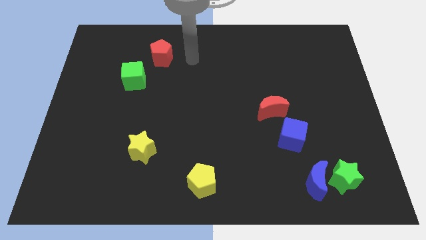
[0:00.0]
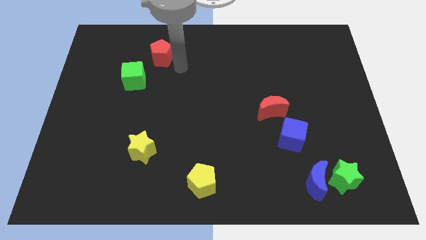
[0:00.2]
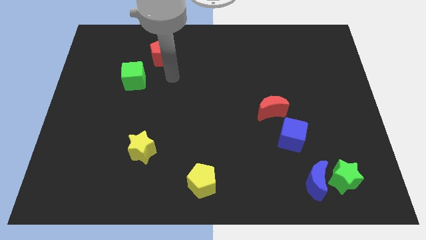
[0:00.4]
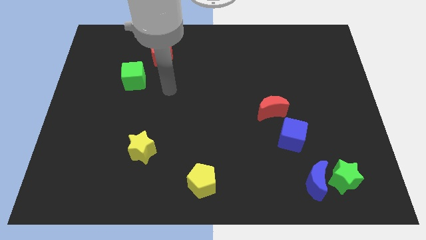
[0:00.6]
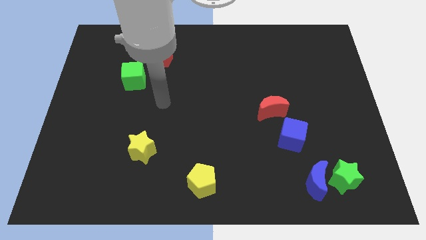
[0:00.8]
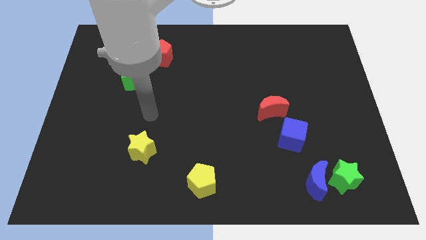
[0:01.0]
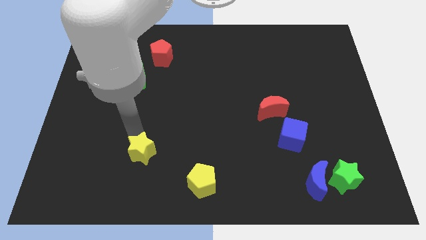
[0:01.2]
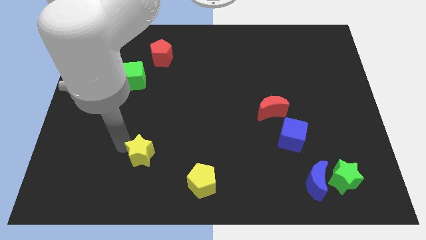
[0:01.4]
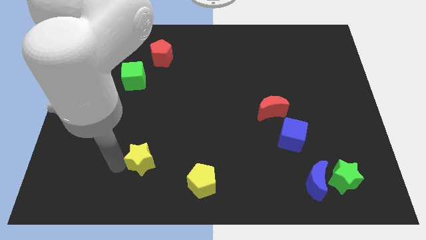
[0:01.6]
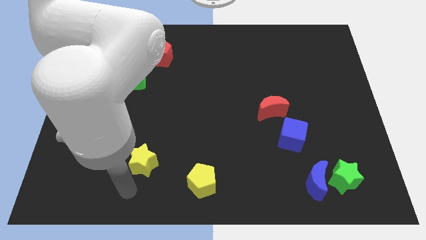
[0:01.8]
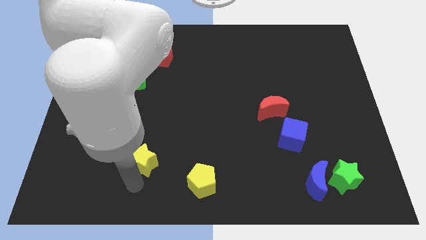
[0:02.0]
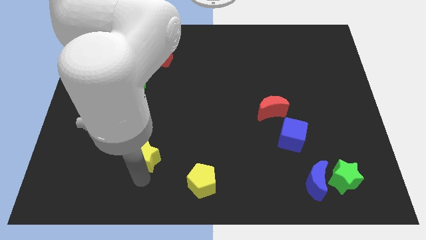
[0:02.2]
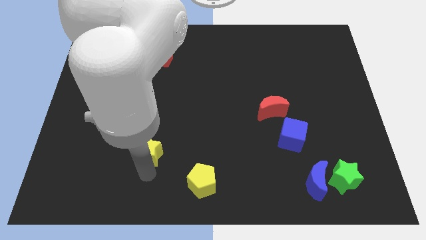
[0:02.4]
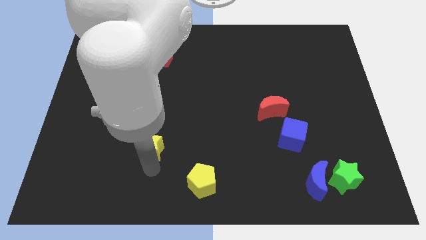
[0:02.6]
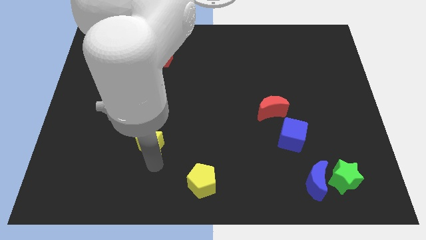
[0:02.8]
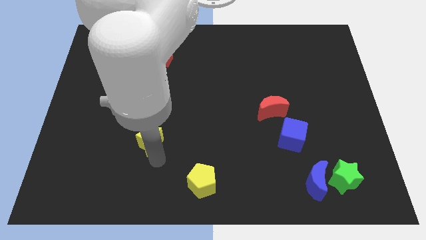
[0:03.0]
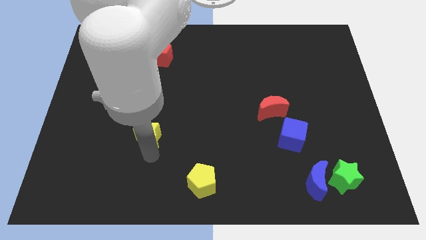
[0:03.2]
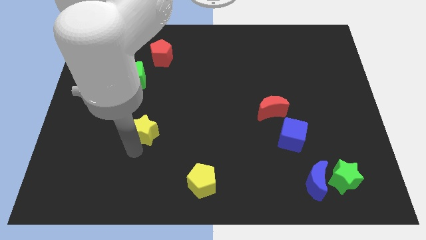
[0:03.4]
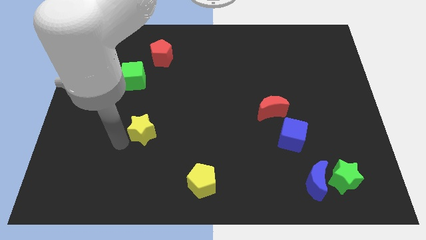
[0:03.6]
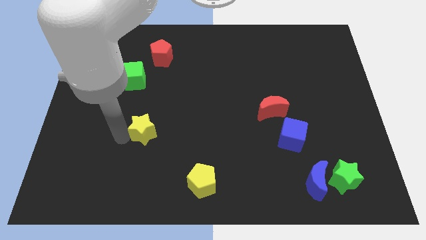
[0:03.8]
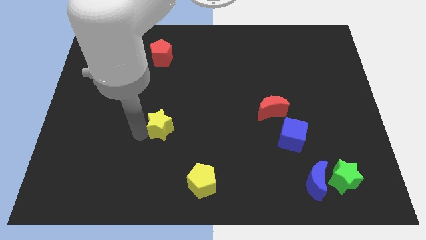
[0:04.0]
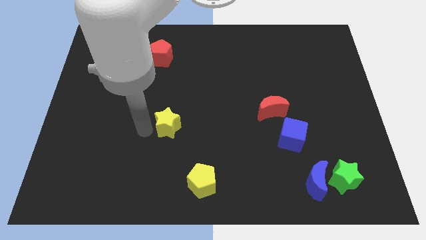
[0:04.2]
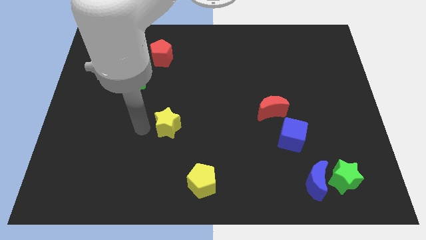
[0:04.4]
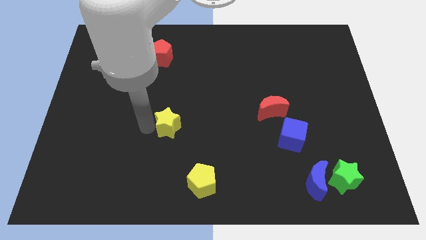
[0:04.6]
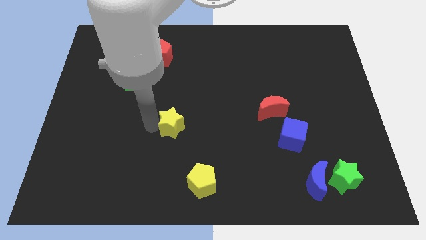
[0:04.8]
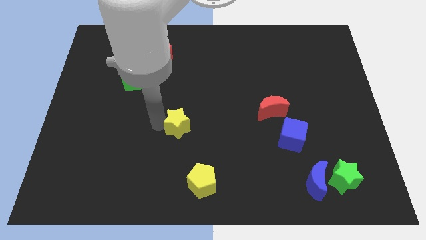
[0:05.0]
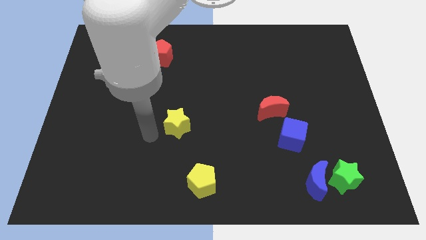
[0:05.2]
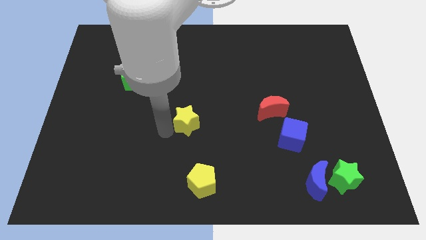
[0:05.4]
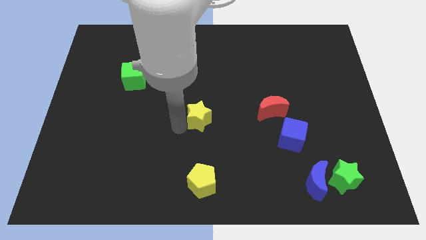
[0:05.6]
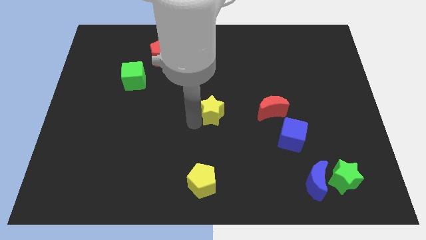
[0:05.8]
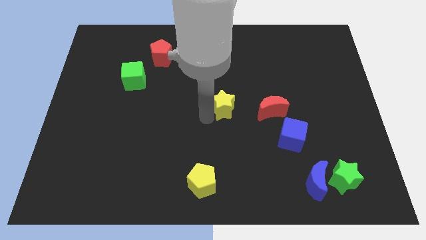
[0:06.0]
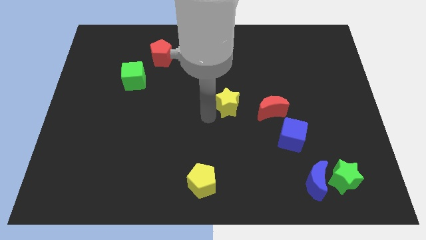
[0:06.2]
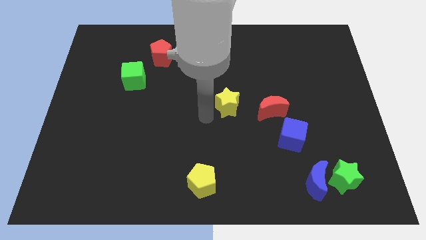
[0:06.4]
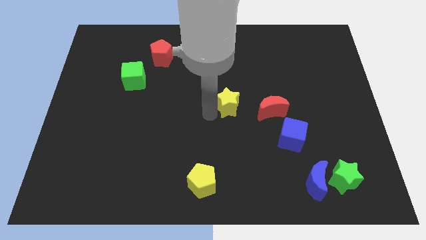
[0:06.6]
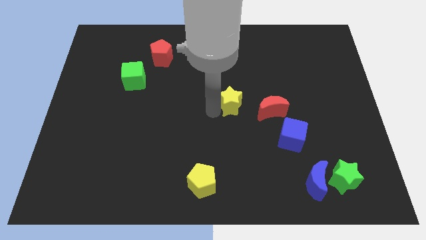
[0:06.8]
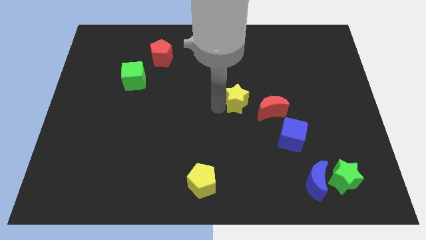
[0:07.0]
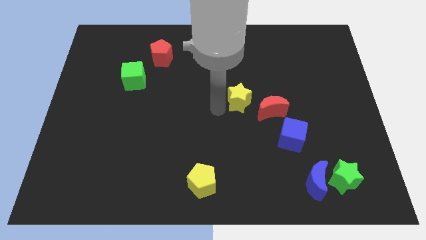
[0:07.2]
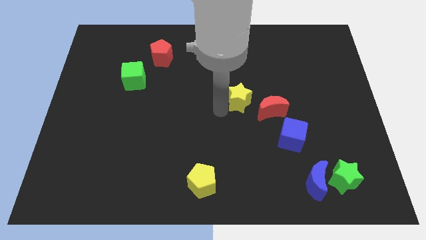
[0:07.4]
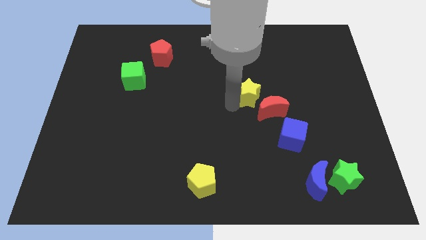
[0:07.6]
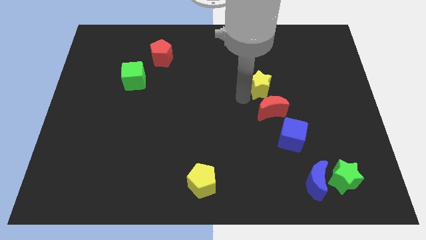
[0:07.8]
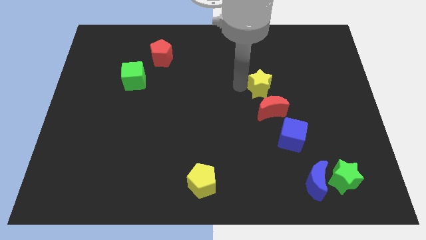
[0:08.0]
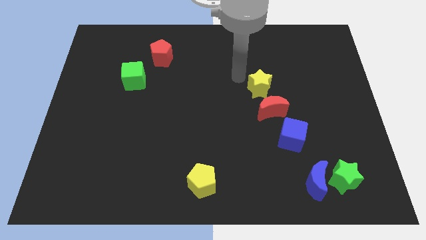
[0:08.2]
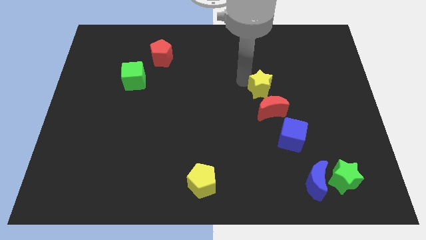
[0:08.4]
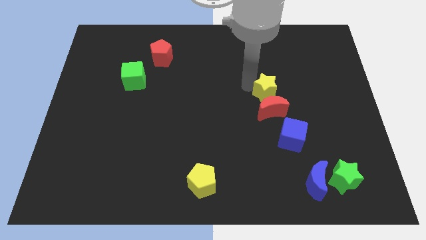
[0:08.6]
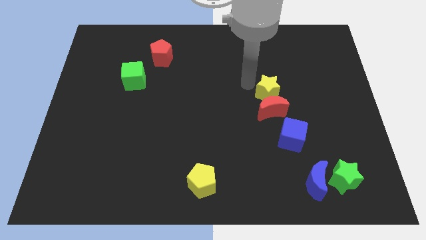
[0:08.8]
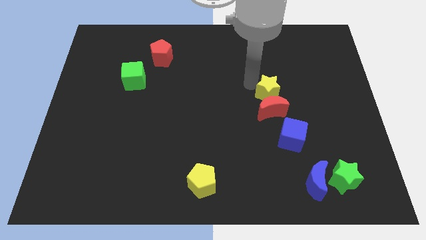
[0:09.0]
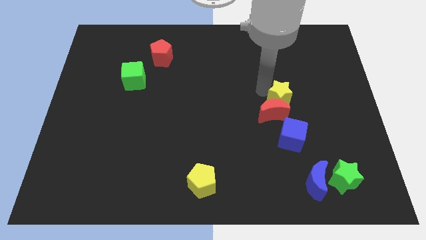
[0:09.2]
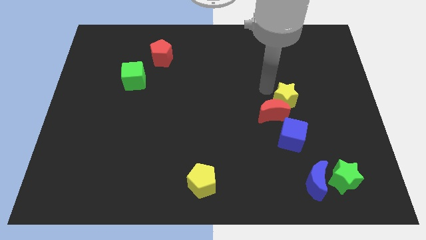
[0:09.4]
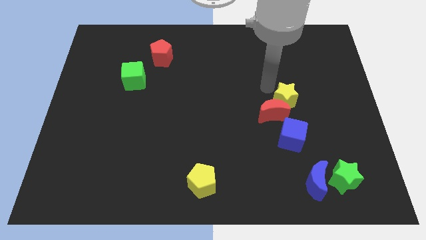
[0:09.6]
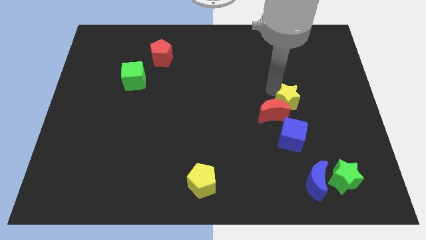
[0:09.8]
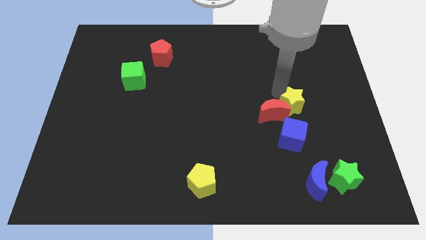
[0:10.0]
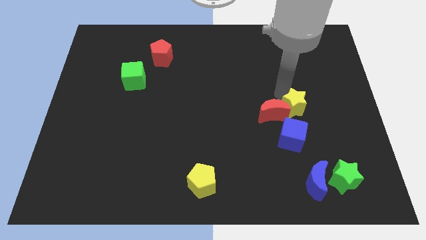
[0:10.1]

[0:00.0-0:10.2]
slide the yellow star diagonally up and to the right of the blue cube
